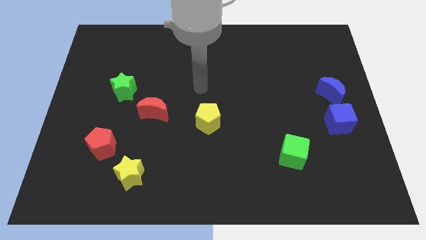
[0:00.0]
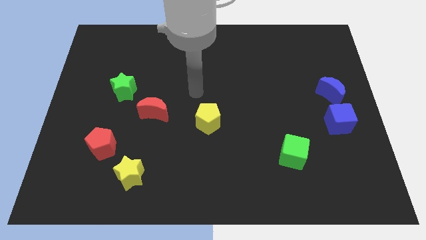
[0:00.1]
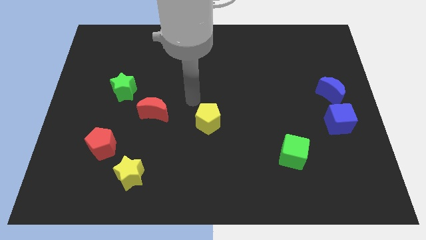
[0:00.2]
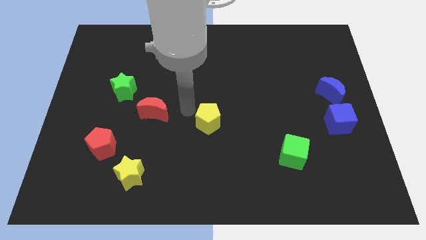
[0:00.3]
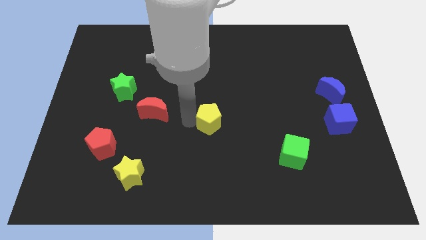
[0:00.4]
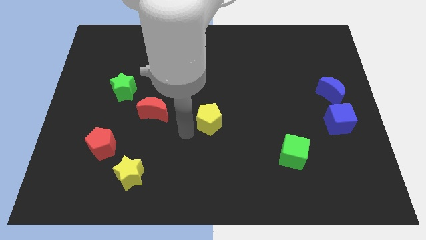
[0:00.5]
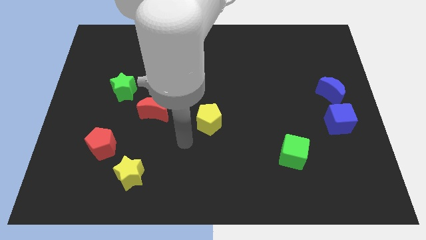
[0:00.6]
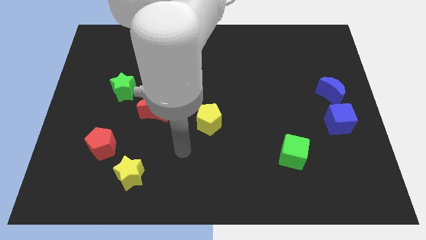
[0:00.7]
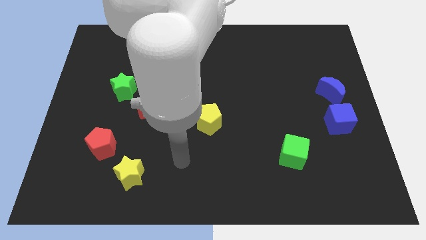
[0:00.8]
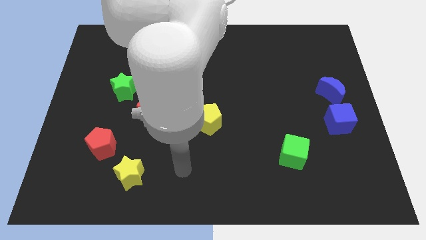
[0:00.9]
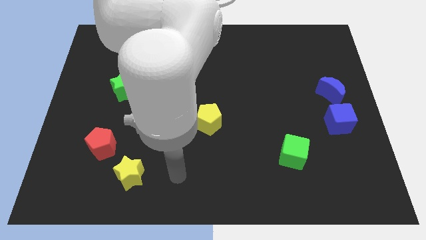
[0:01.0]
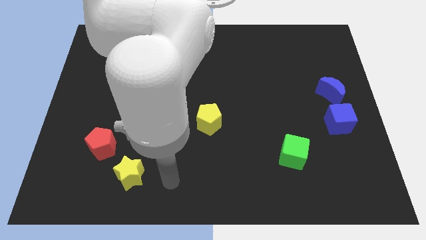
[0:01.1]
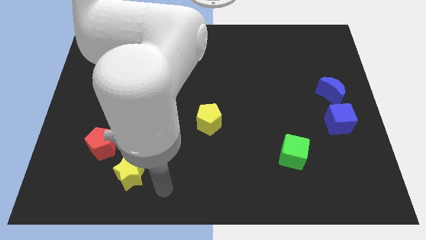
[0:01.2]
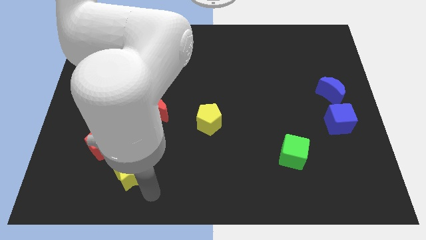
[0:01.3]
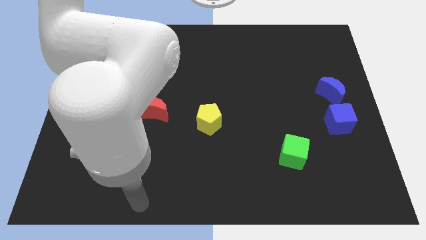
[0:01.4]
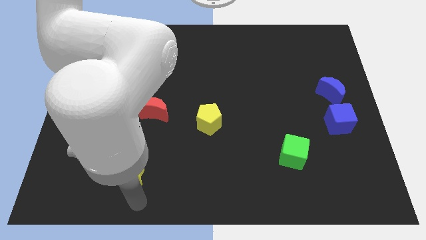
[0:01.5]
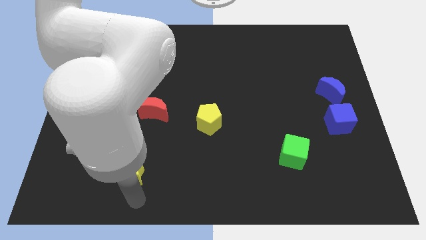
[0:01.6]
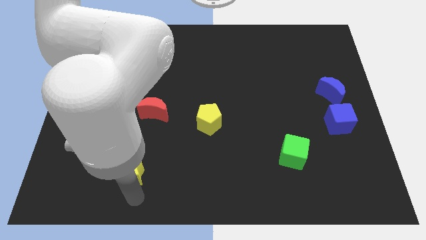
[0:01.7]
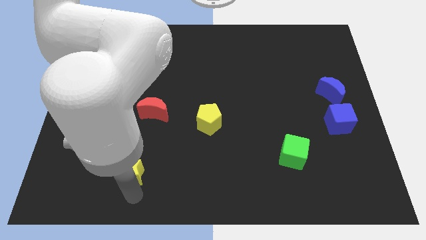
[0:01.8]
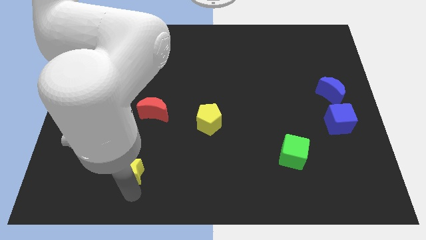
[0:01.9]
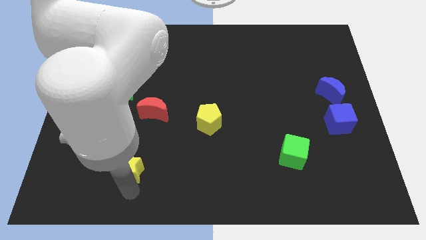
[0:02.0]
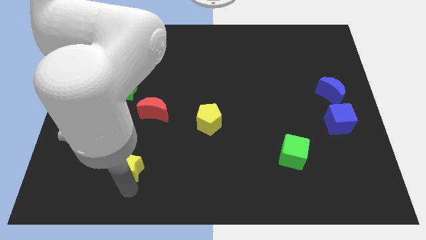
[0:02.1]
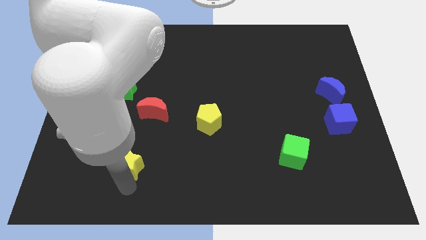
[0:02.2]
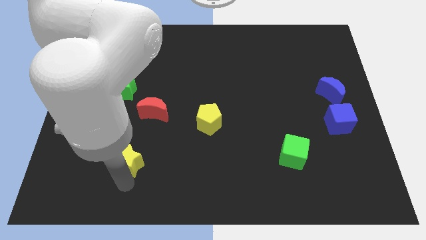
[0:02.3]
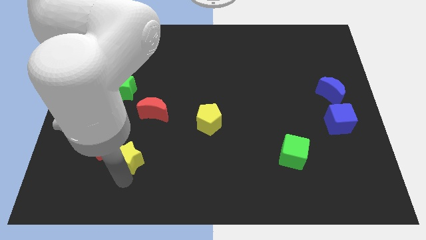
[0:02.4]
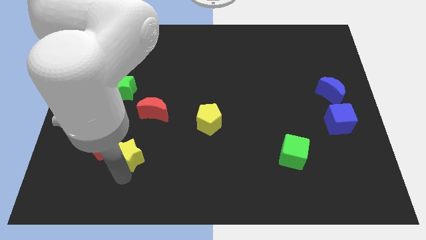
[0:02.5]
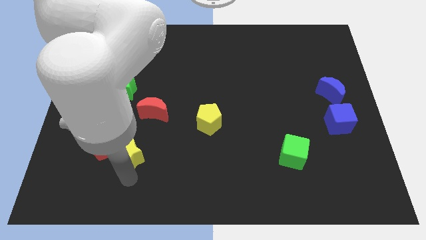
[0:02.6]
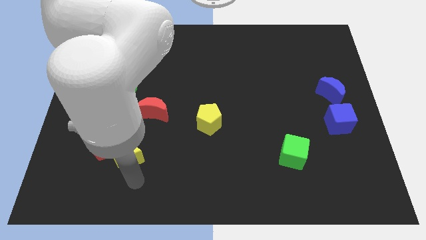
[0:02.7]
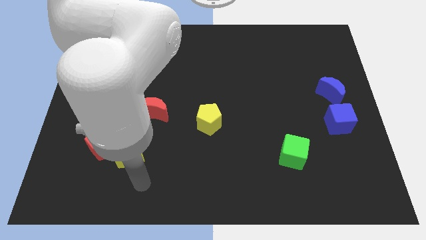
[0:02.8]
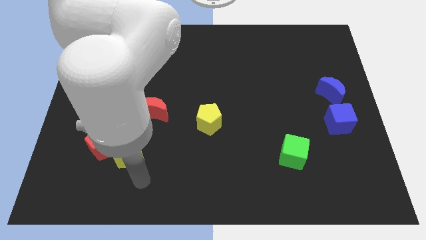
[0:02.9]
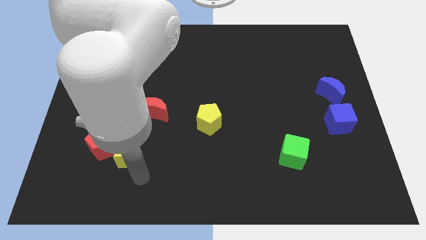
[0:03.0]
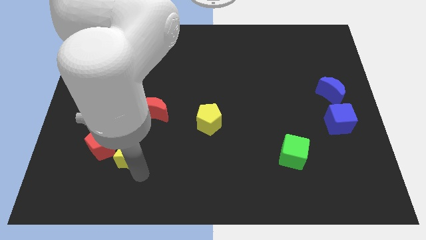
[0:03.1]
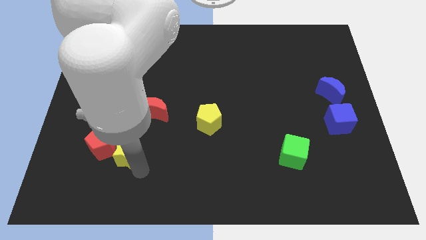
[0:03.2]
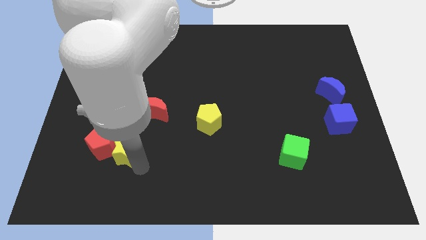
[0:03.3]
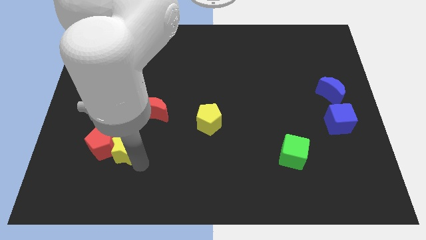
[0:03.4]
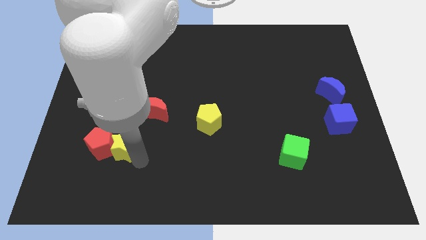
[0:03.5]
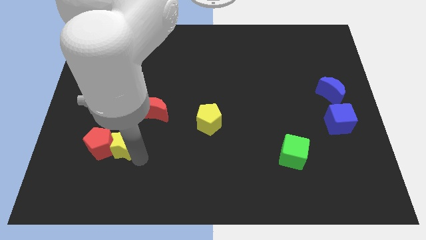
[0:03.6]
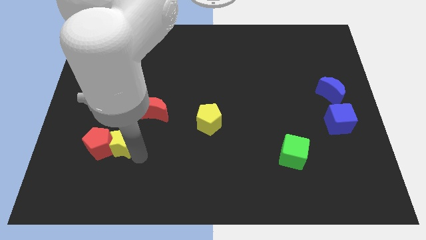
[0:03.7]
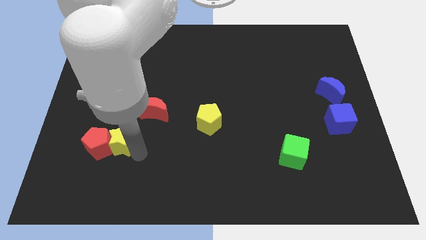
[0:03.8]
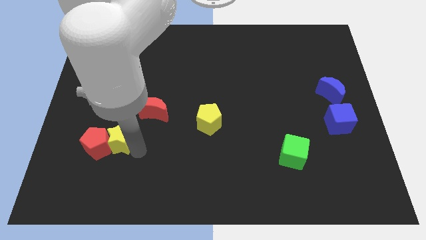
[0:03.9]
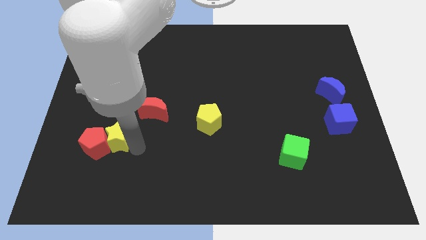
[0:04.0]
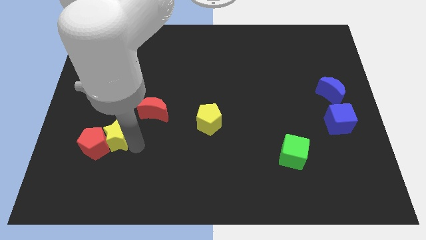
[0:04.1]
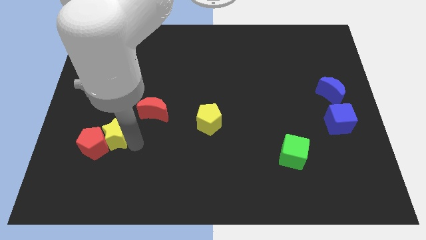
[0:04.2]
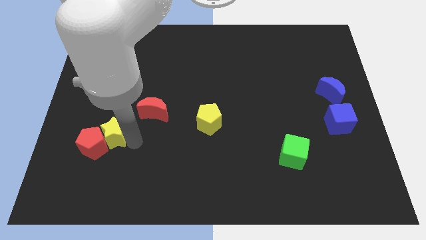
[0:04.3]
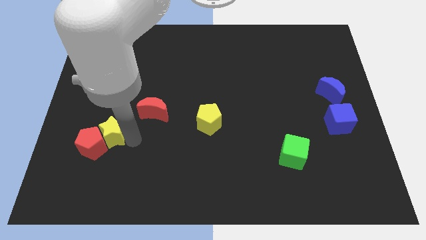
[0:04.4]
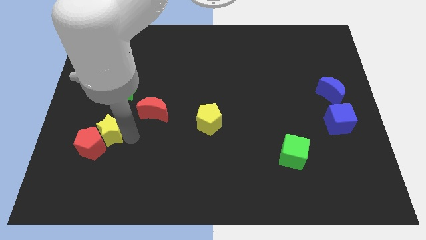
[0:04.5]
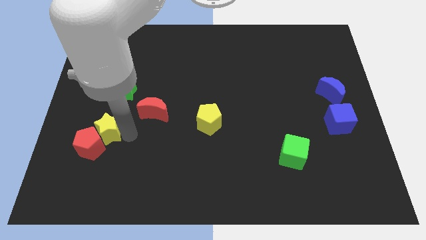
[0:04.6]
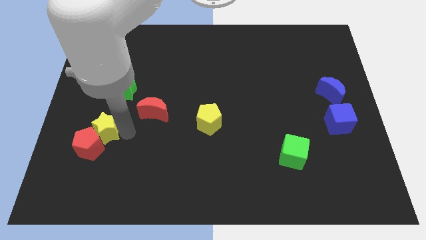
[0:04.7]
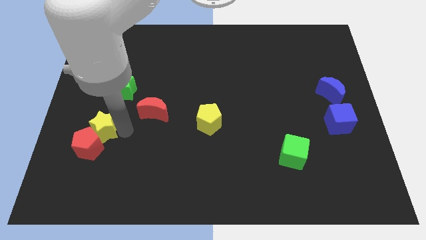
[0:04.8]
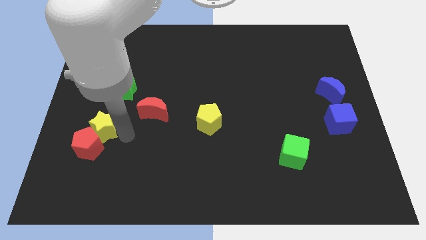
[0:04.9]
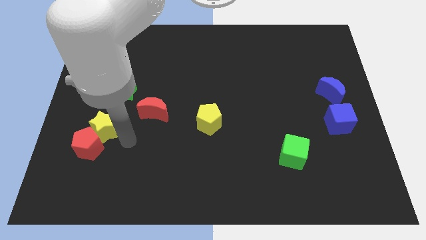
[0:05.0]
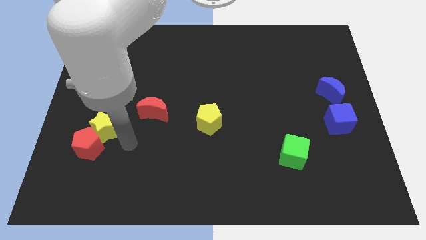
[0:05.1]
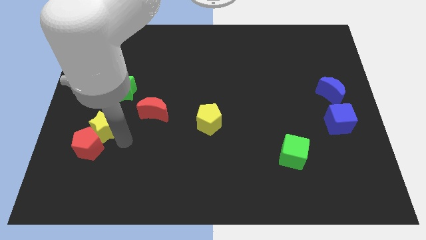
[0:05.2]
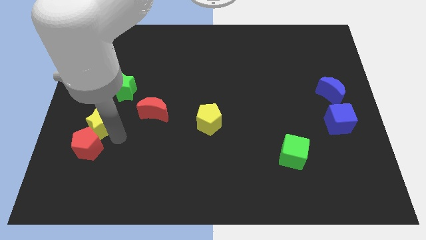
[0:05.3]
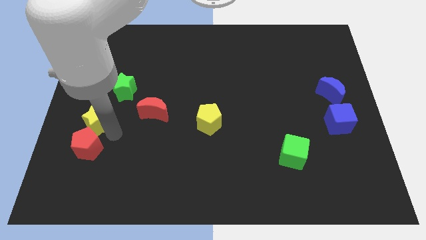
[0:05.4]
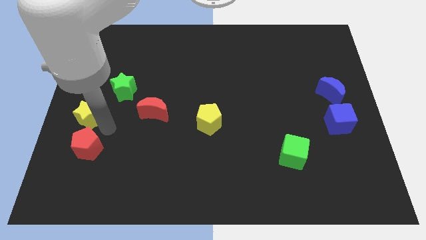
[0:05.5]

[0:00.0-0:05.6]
move the yellow star to the left side
